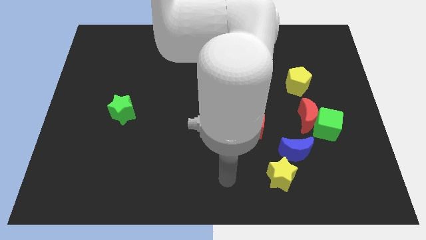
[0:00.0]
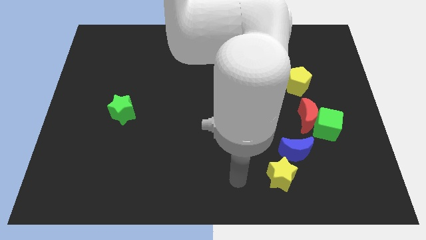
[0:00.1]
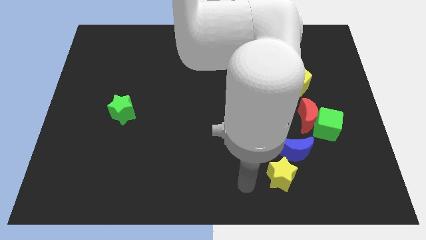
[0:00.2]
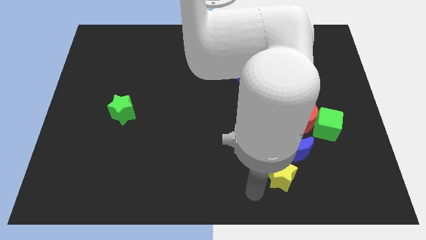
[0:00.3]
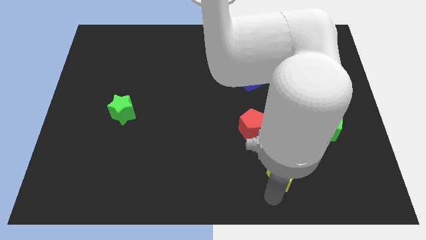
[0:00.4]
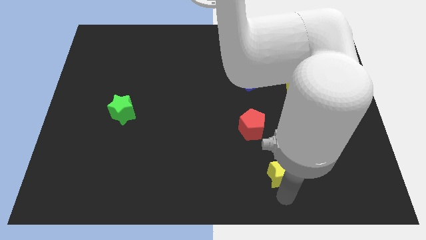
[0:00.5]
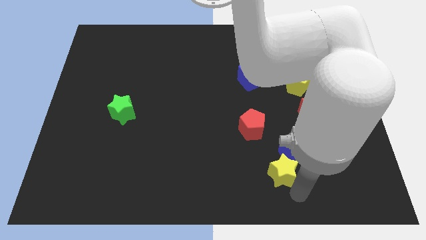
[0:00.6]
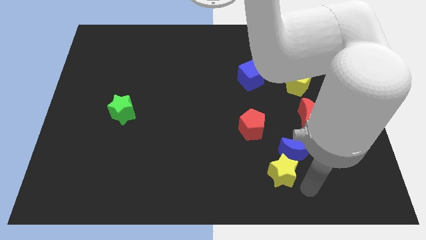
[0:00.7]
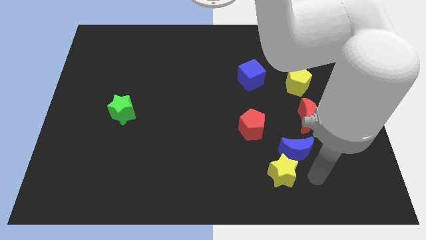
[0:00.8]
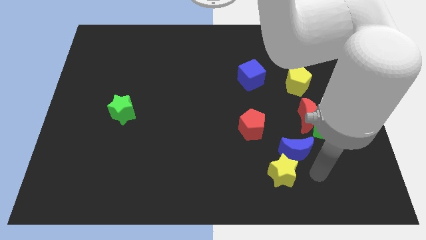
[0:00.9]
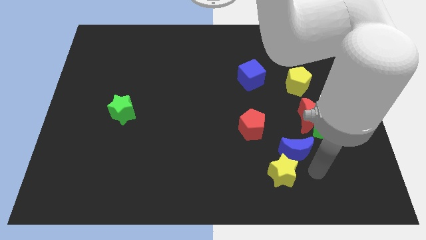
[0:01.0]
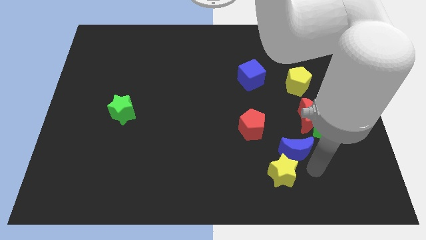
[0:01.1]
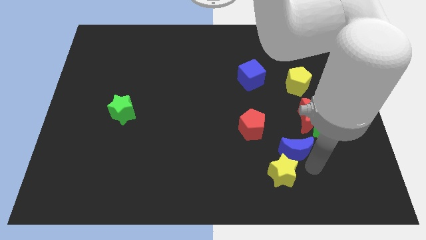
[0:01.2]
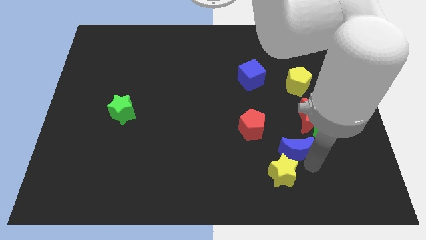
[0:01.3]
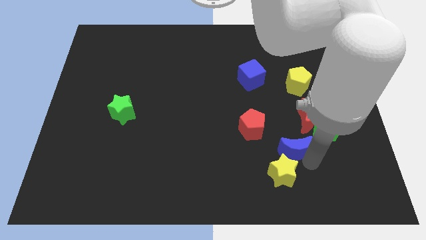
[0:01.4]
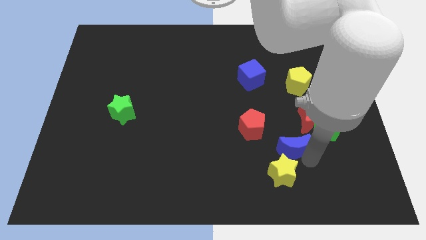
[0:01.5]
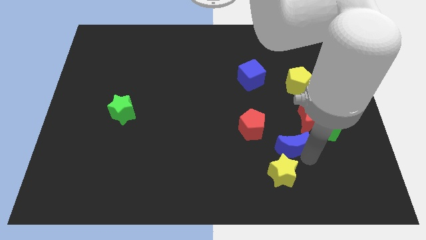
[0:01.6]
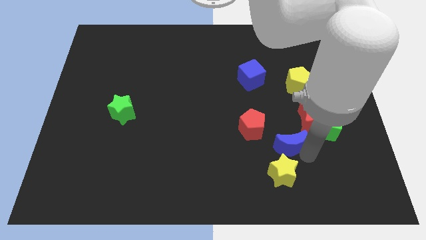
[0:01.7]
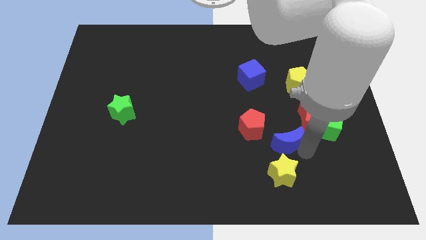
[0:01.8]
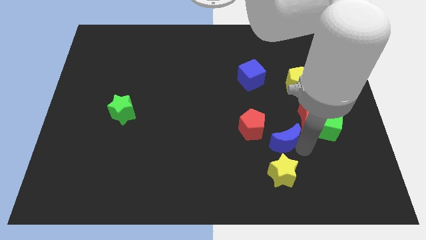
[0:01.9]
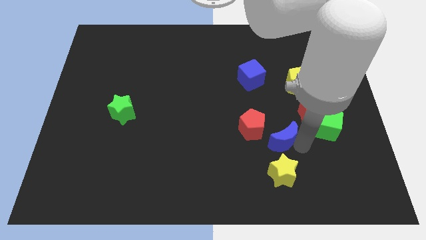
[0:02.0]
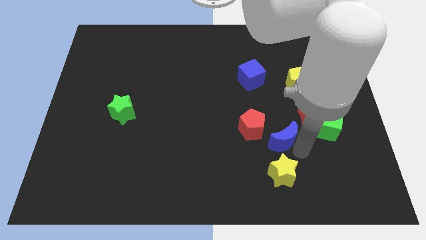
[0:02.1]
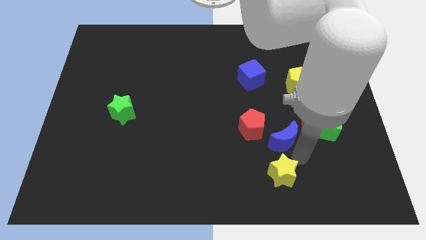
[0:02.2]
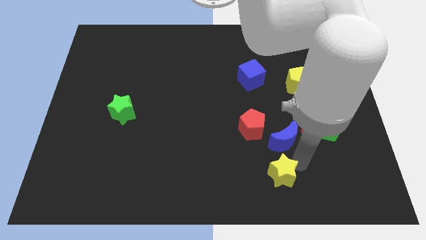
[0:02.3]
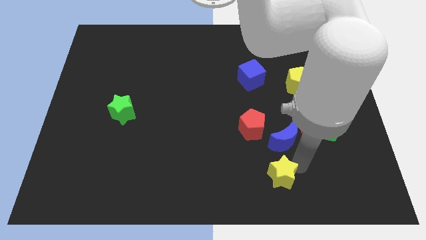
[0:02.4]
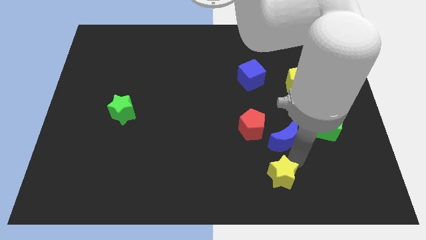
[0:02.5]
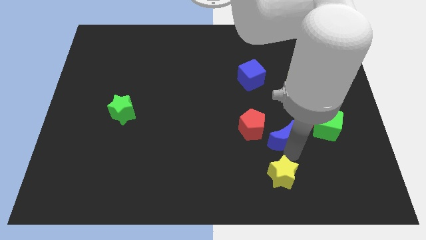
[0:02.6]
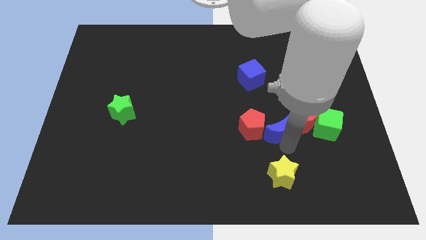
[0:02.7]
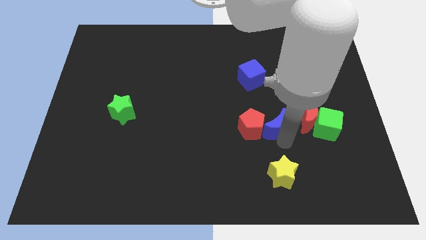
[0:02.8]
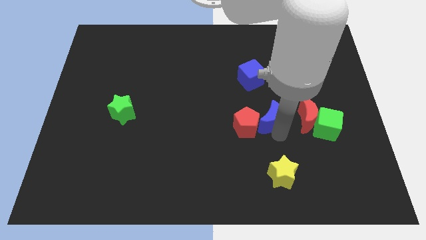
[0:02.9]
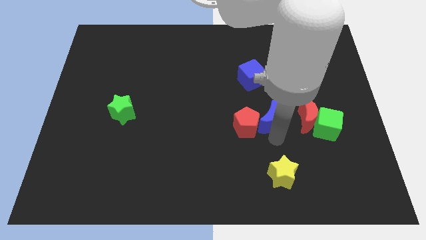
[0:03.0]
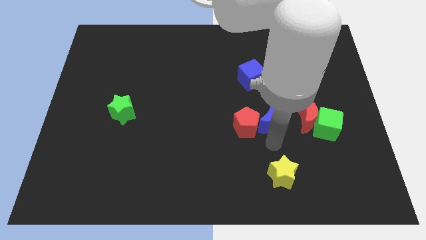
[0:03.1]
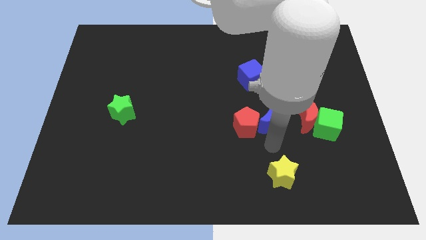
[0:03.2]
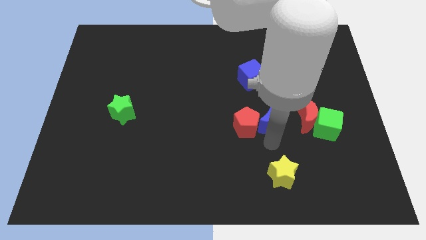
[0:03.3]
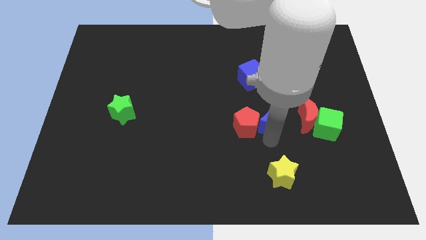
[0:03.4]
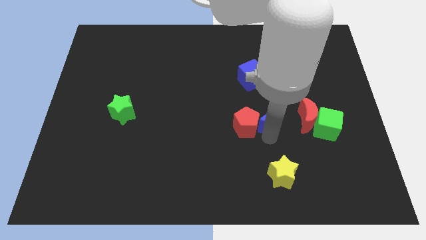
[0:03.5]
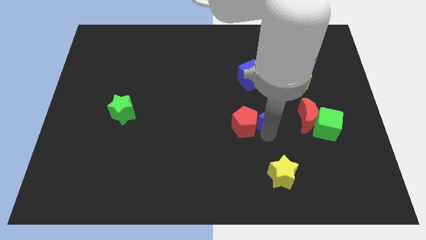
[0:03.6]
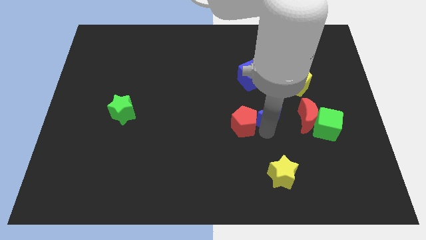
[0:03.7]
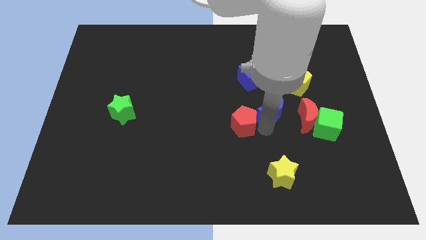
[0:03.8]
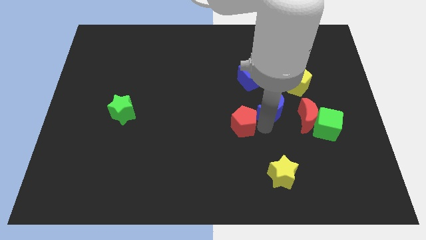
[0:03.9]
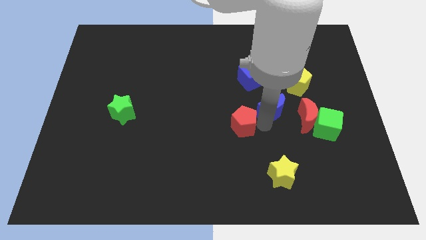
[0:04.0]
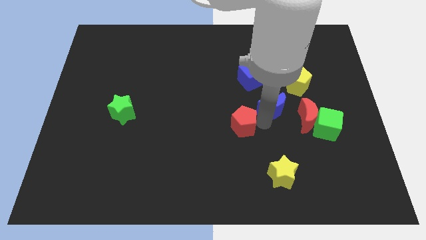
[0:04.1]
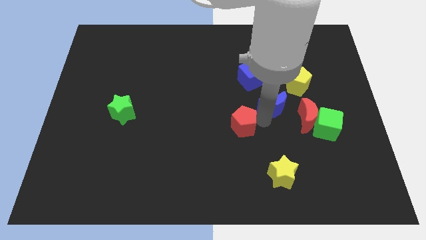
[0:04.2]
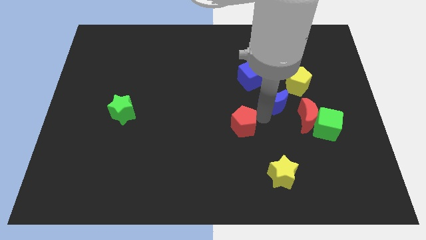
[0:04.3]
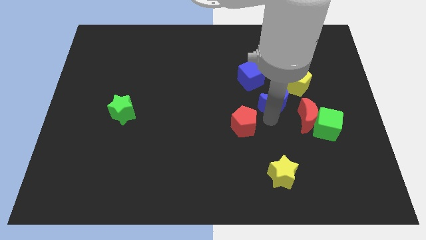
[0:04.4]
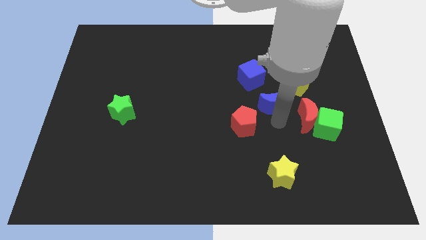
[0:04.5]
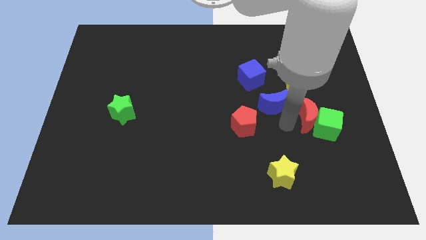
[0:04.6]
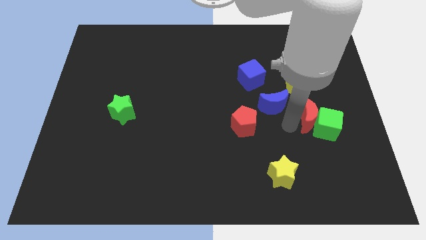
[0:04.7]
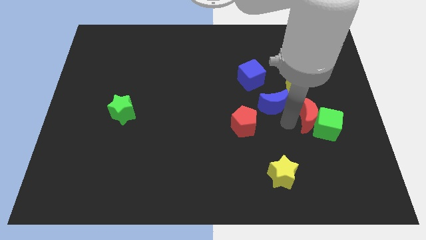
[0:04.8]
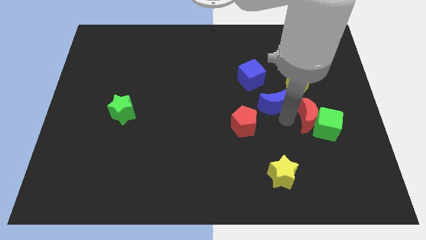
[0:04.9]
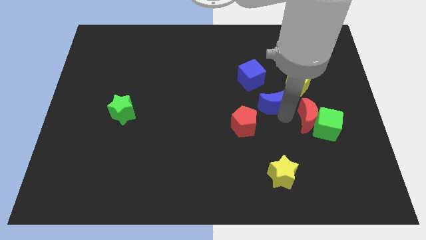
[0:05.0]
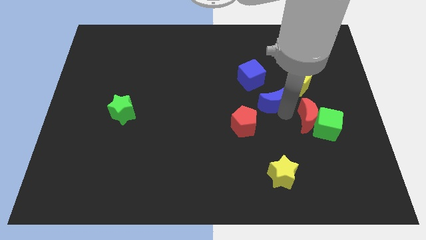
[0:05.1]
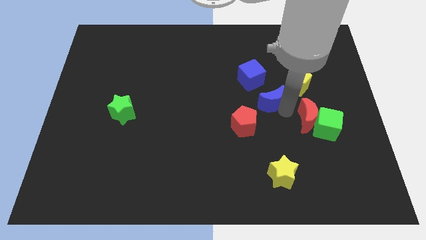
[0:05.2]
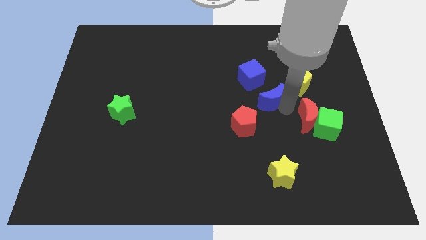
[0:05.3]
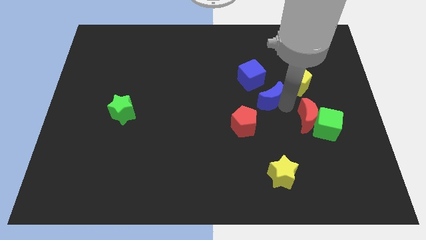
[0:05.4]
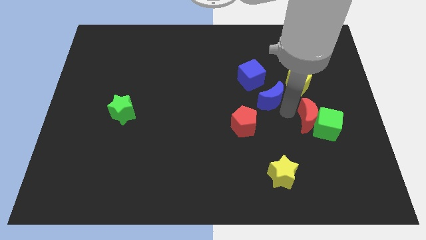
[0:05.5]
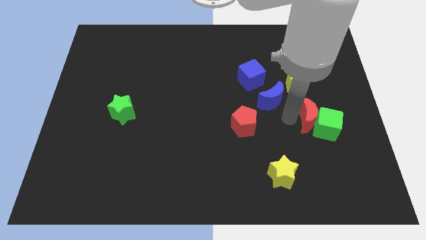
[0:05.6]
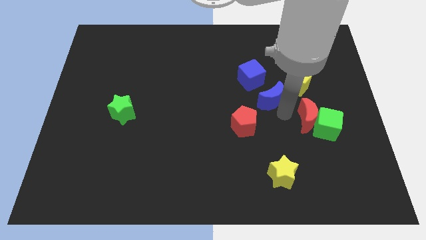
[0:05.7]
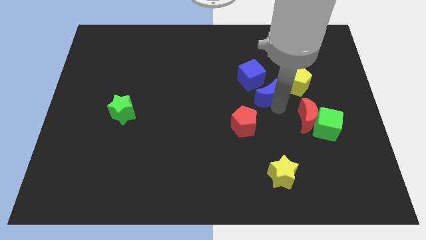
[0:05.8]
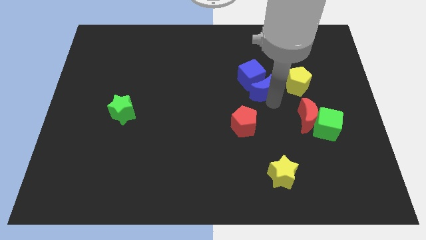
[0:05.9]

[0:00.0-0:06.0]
push the blue moon next to the blue cube

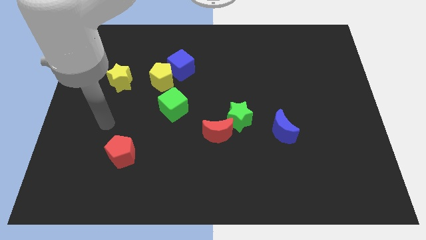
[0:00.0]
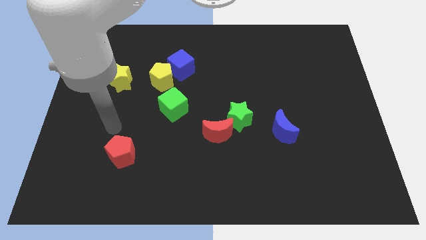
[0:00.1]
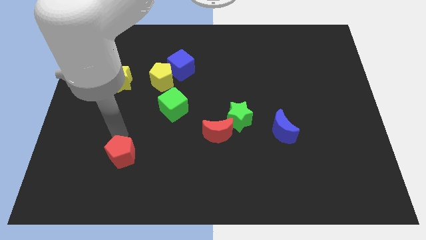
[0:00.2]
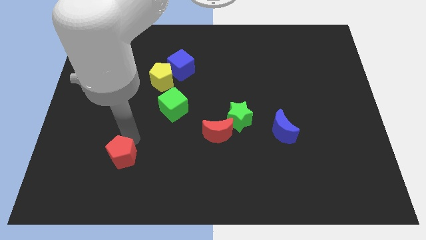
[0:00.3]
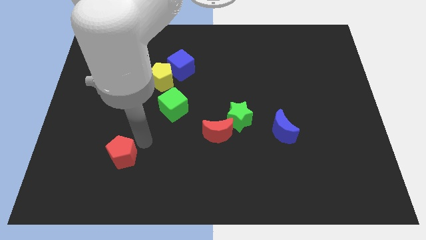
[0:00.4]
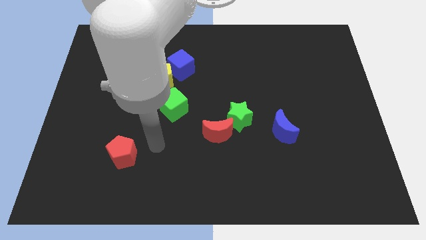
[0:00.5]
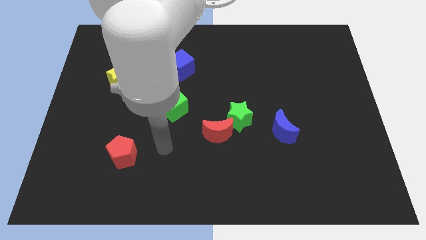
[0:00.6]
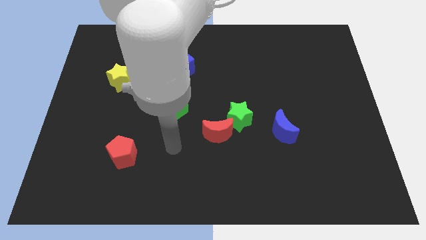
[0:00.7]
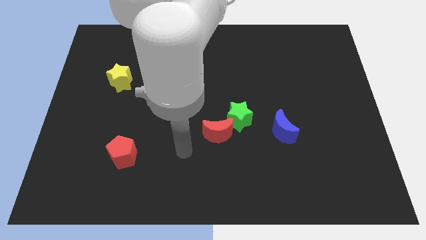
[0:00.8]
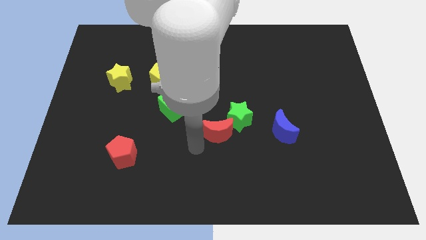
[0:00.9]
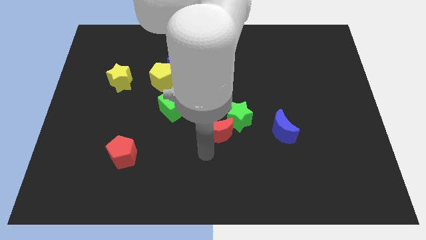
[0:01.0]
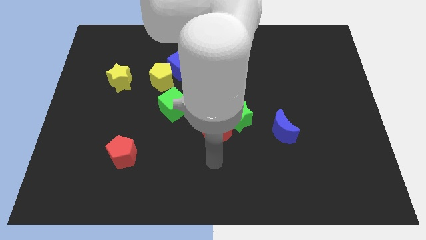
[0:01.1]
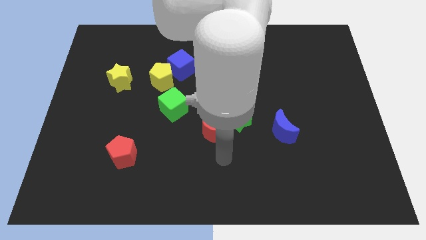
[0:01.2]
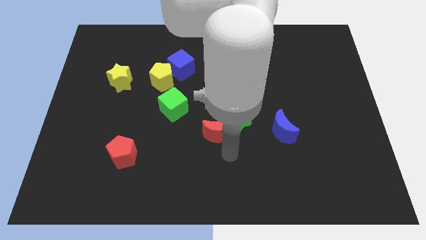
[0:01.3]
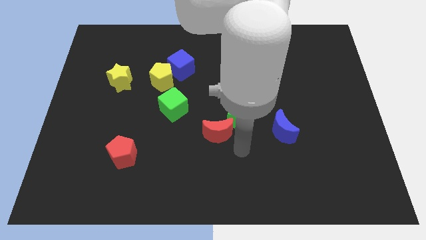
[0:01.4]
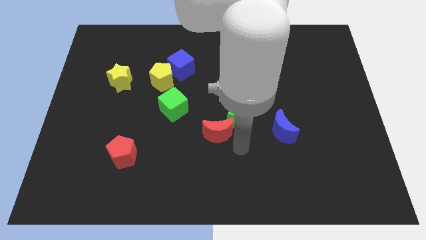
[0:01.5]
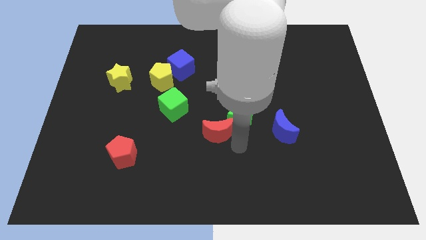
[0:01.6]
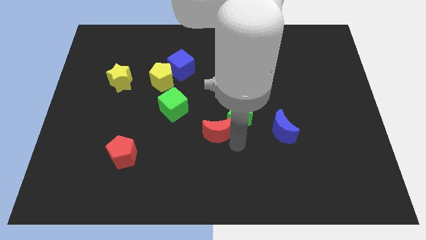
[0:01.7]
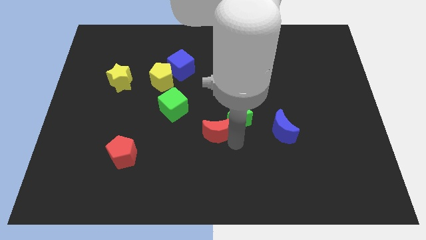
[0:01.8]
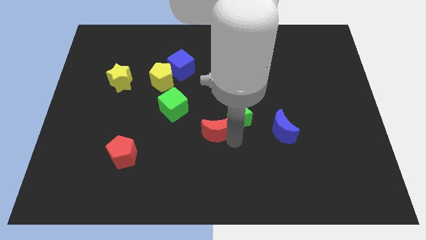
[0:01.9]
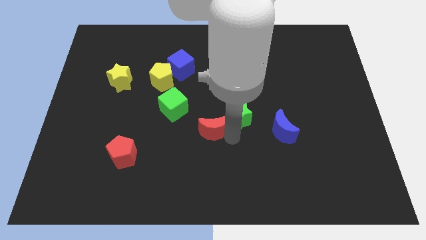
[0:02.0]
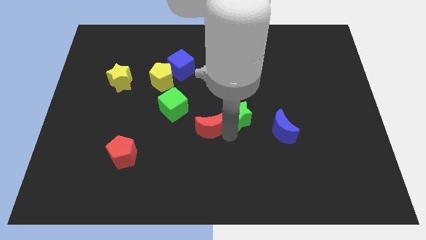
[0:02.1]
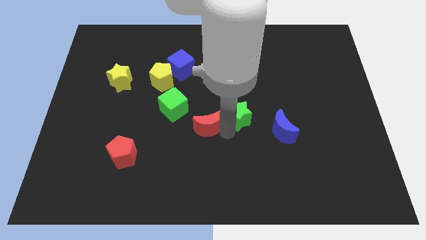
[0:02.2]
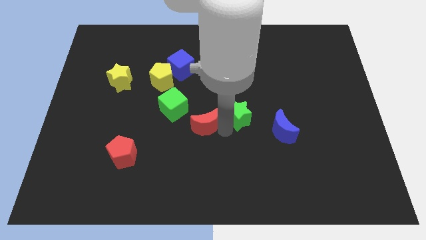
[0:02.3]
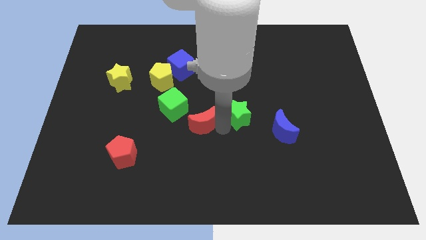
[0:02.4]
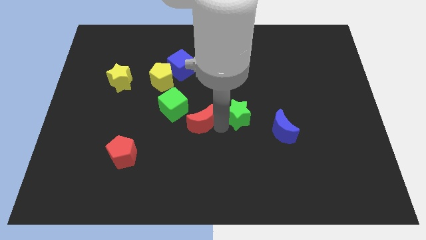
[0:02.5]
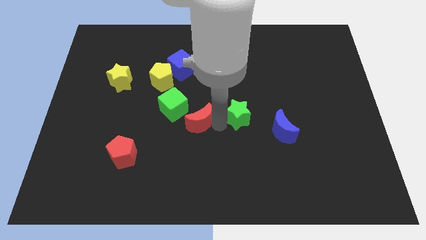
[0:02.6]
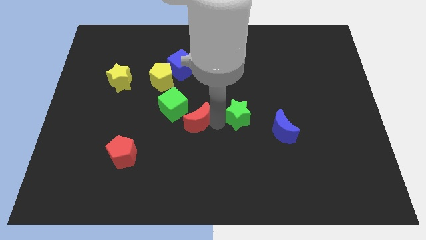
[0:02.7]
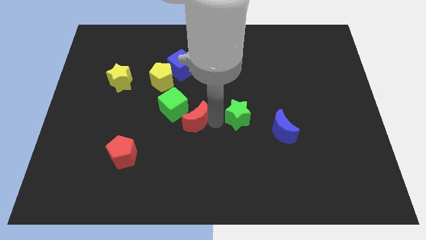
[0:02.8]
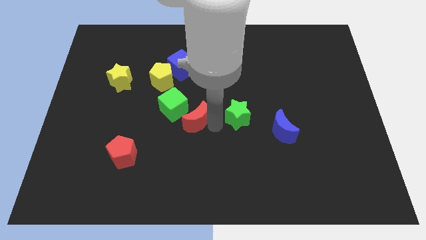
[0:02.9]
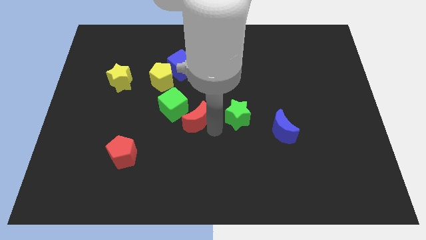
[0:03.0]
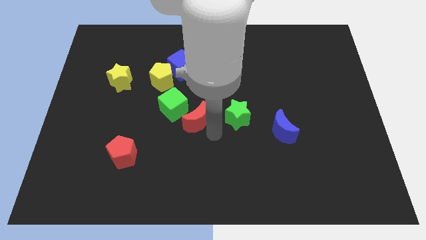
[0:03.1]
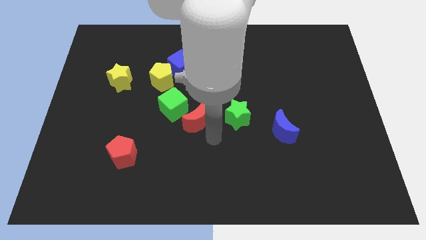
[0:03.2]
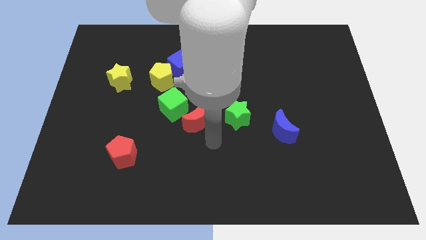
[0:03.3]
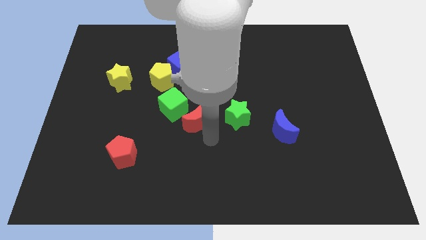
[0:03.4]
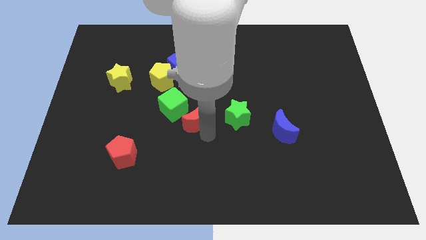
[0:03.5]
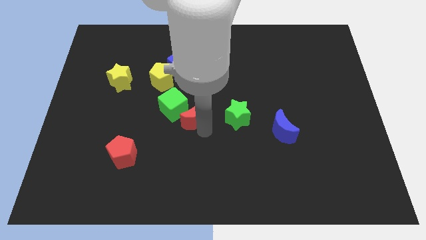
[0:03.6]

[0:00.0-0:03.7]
push the red moon to the green cube
